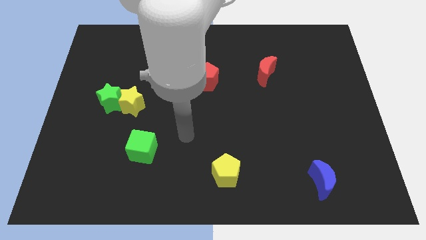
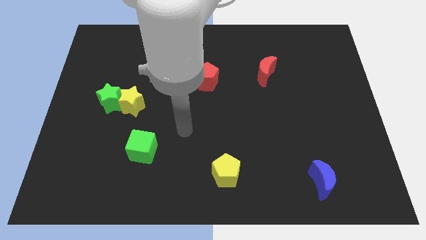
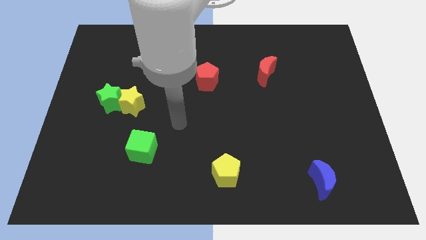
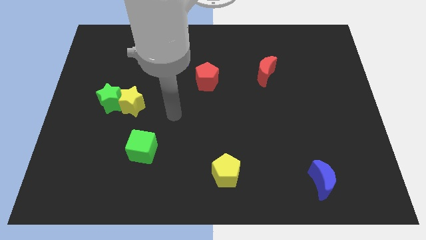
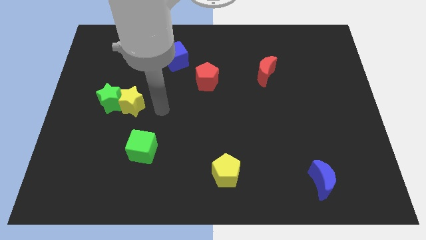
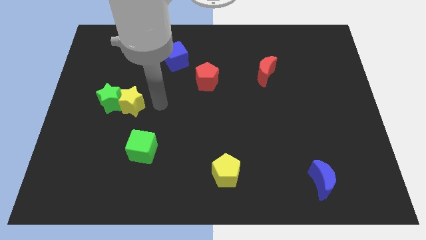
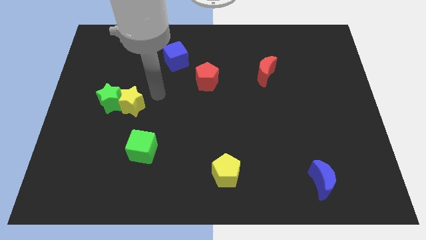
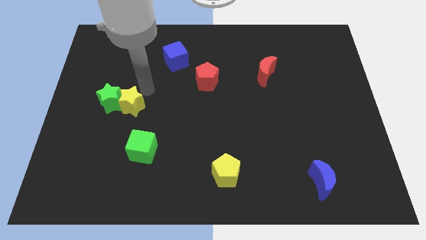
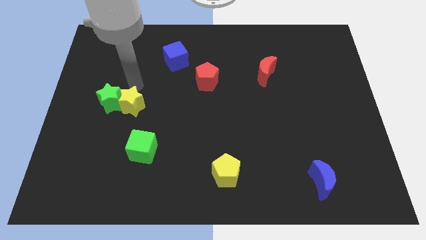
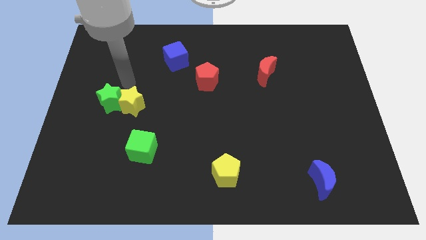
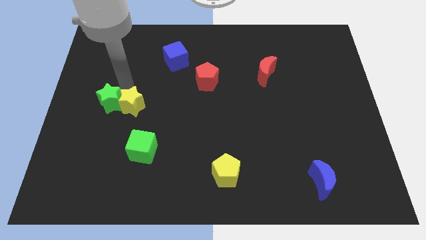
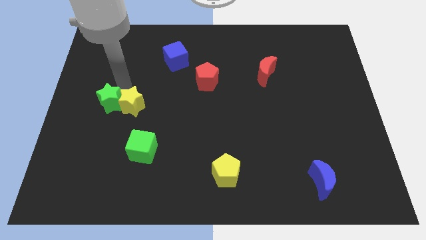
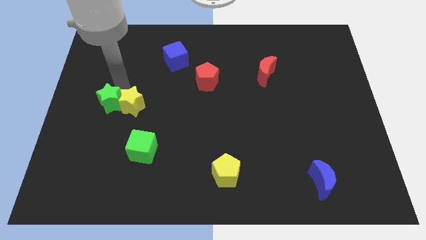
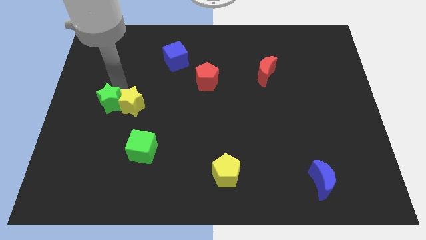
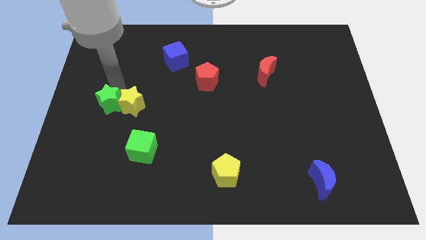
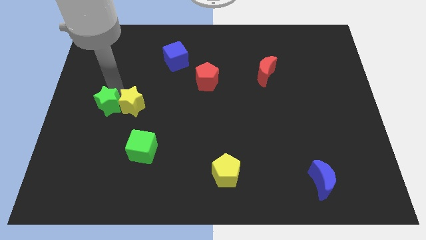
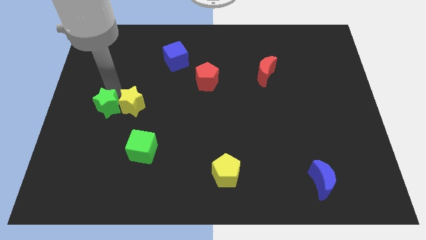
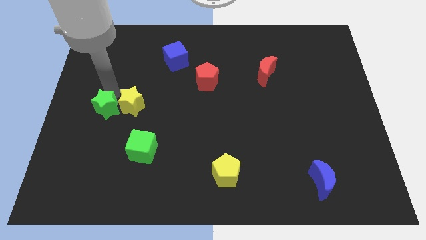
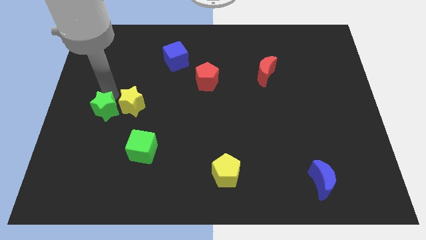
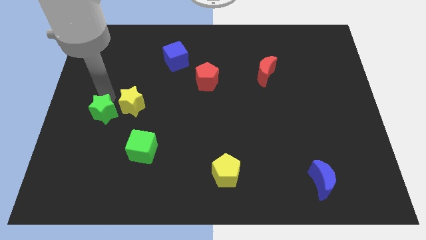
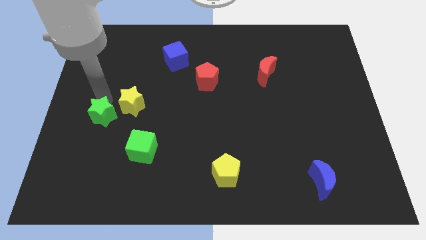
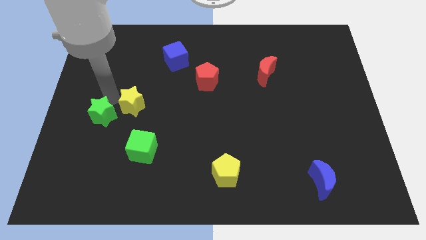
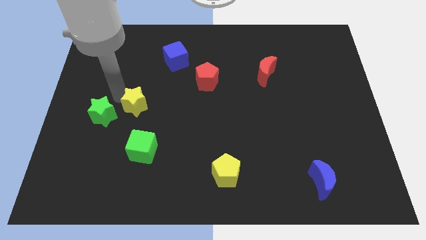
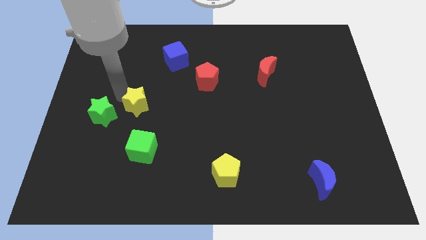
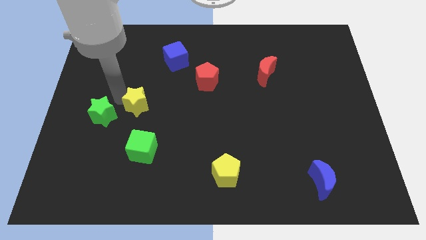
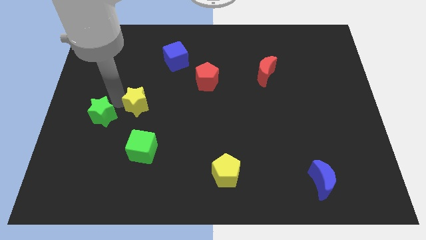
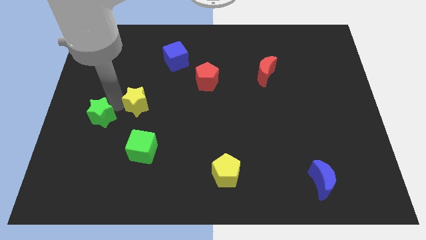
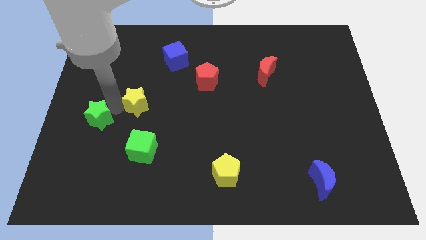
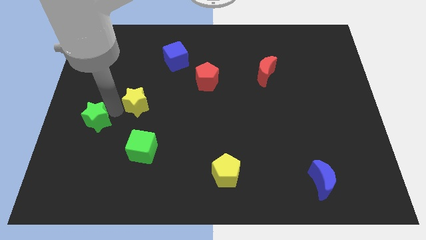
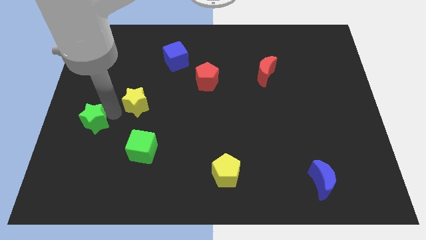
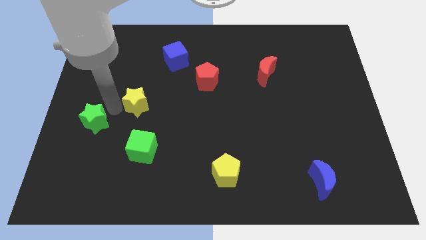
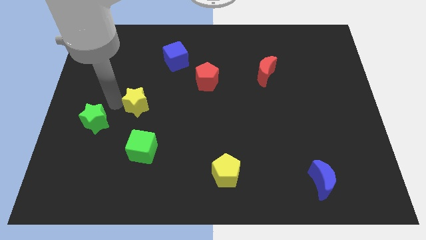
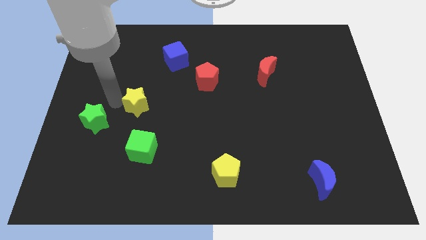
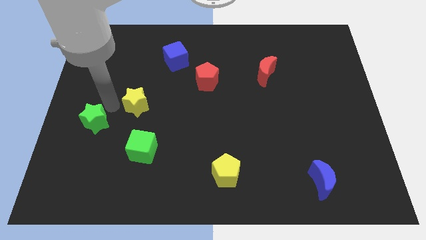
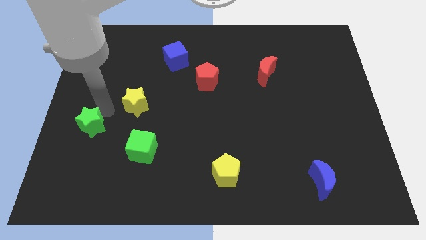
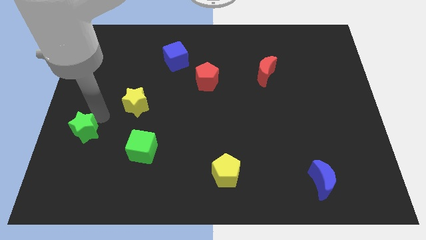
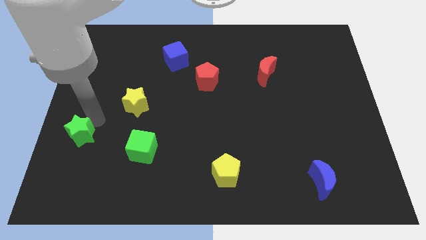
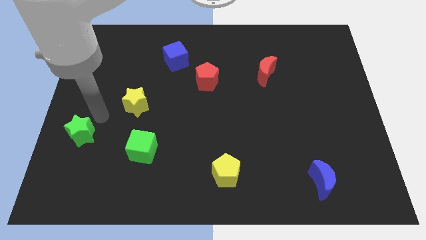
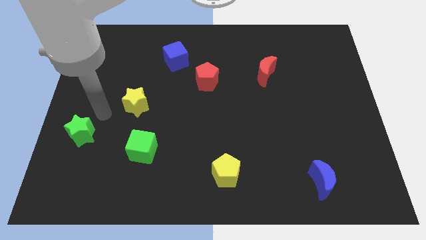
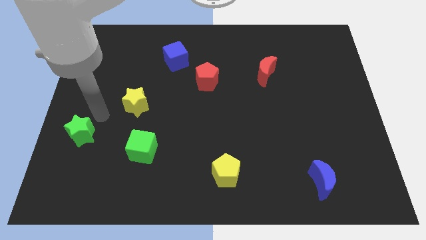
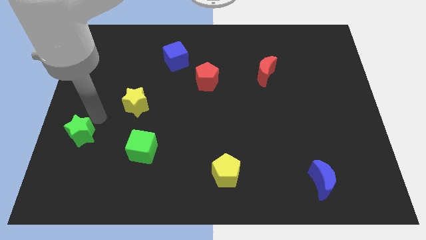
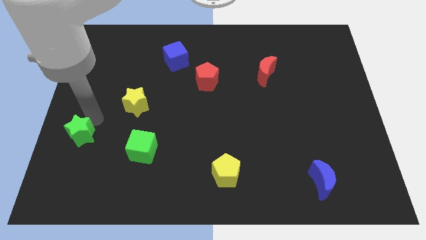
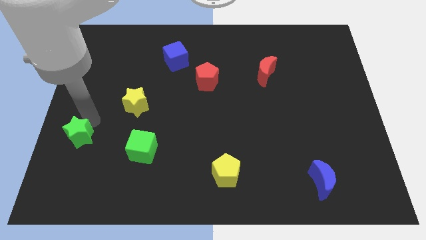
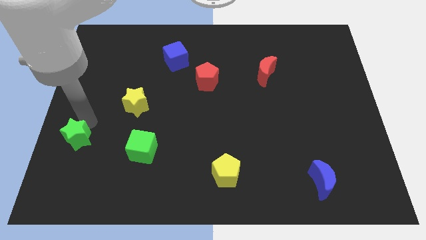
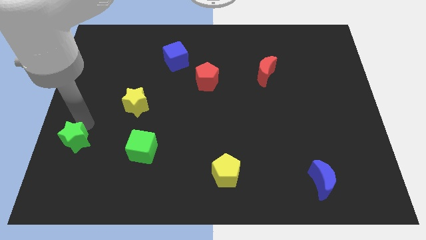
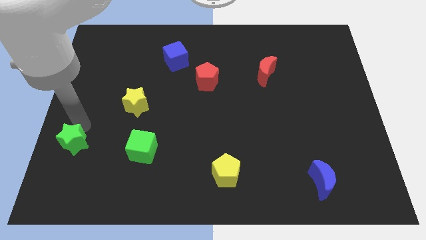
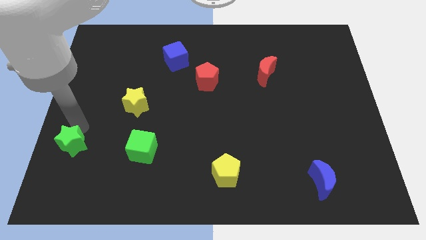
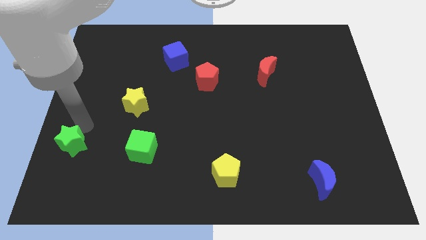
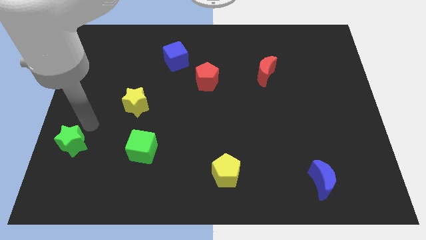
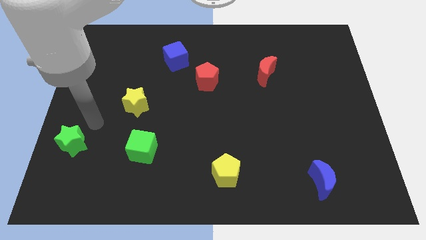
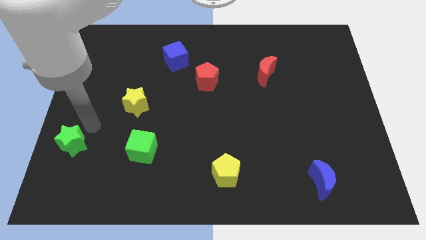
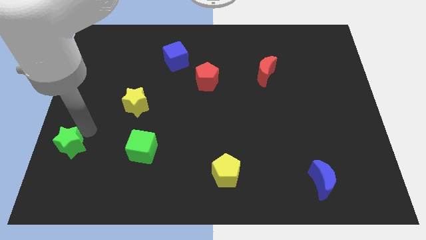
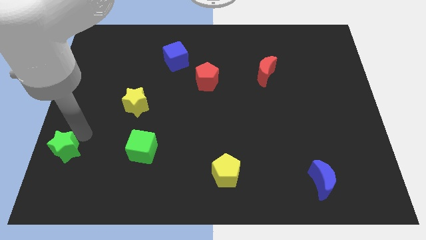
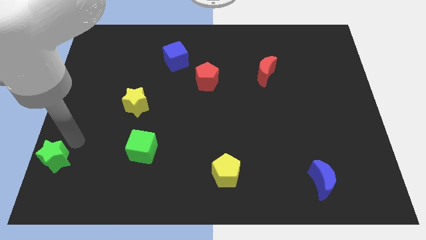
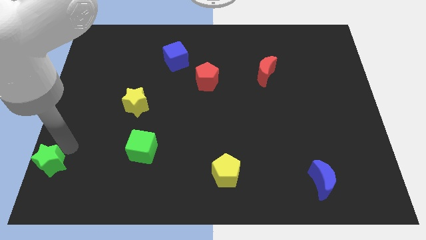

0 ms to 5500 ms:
slide the green star to the bottom left corner

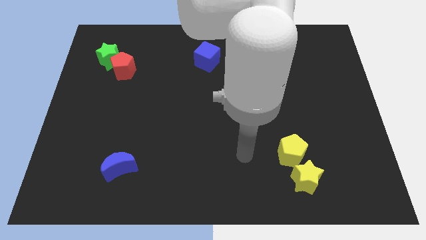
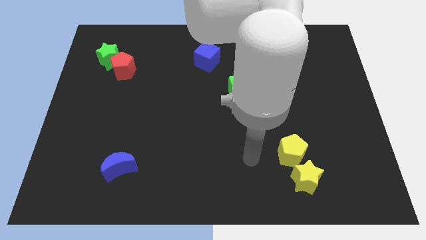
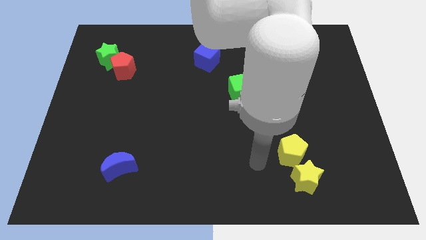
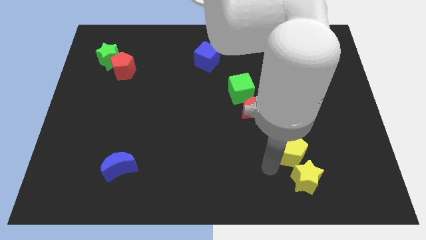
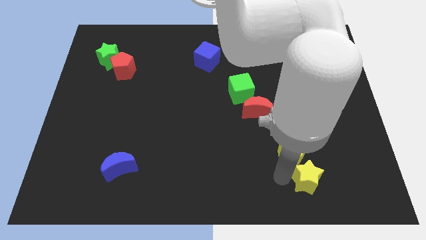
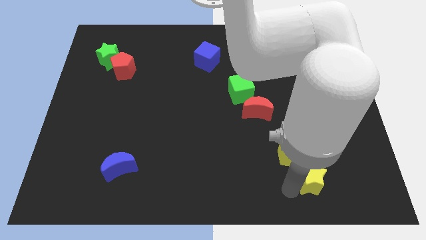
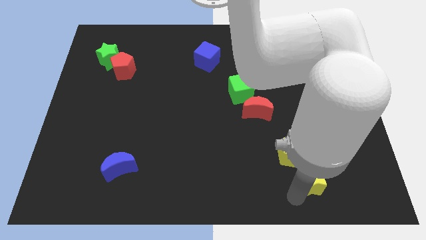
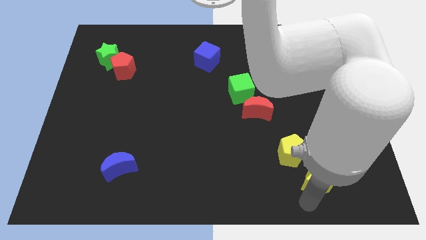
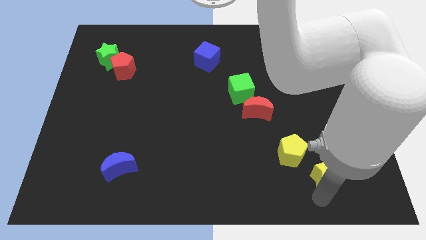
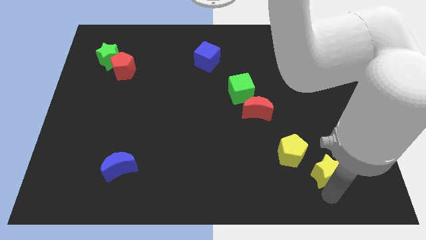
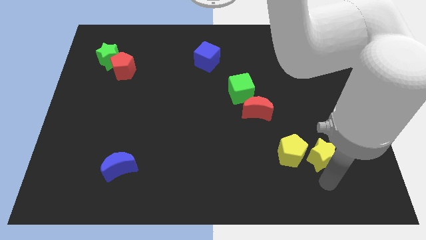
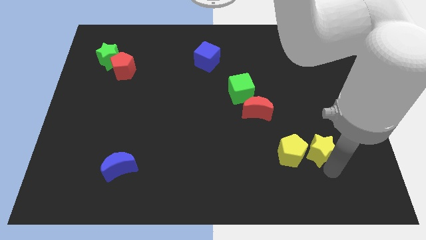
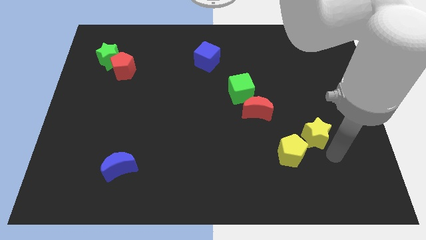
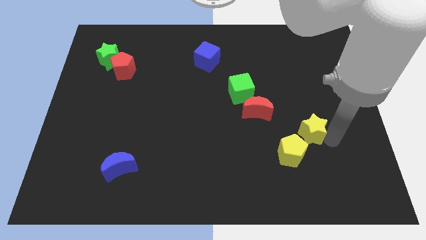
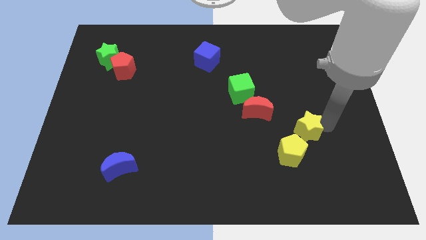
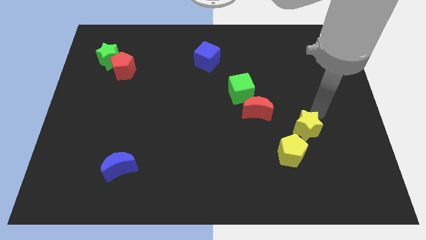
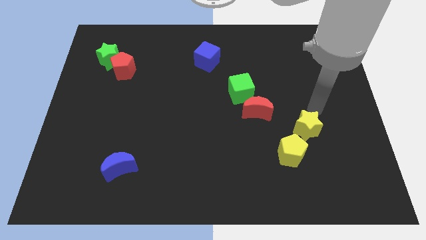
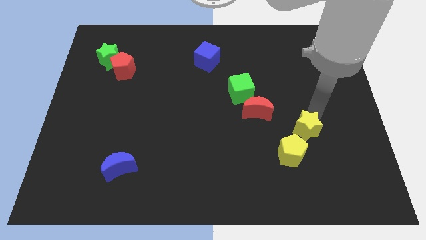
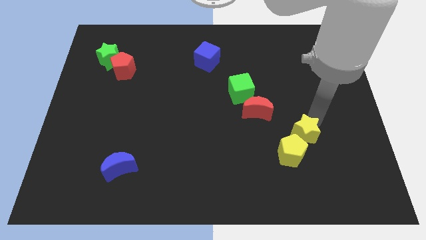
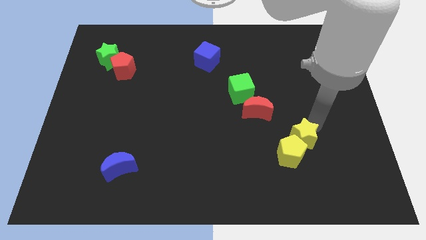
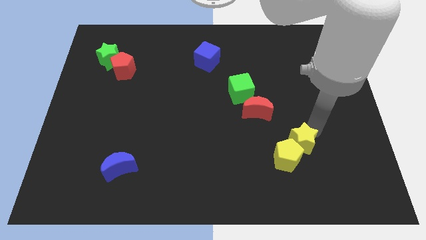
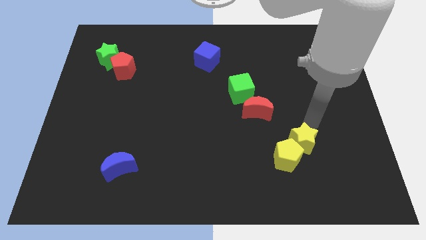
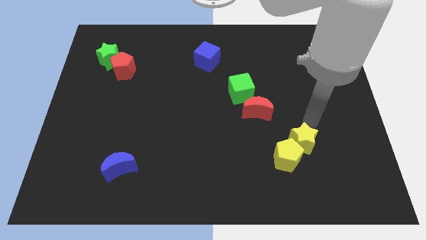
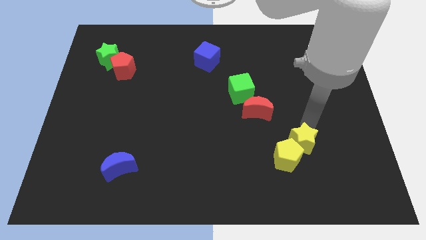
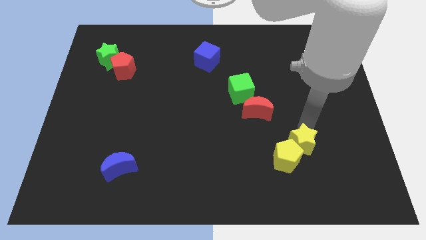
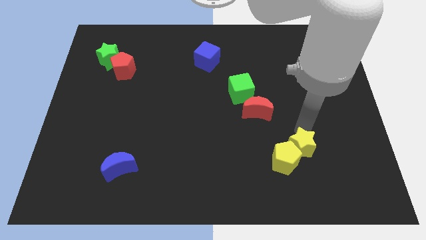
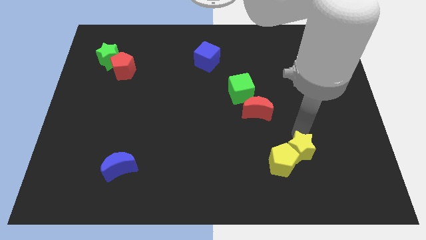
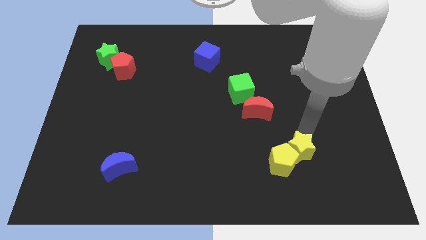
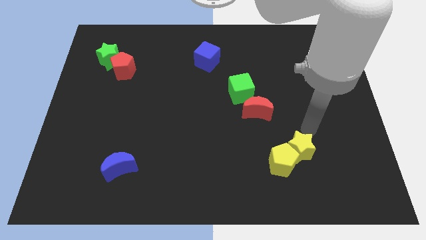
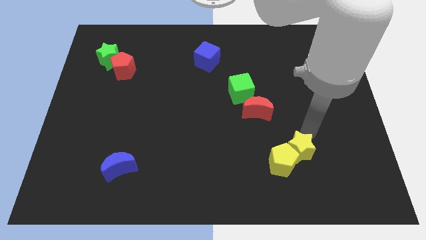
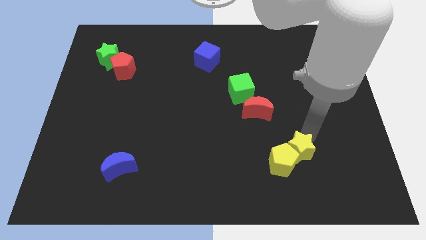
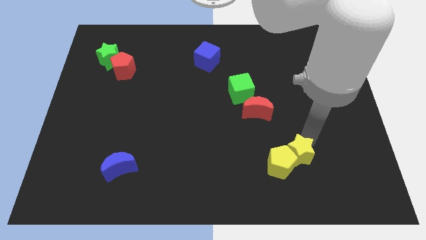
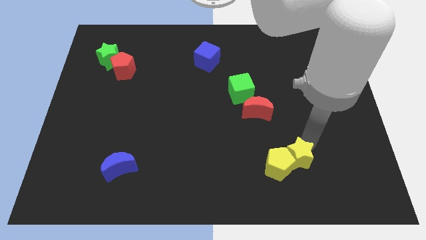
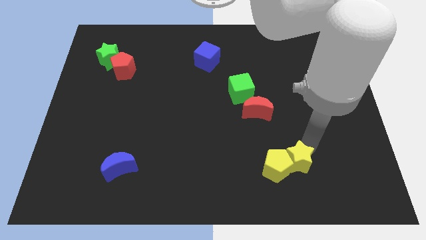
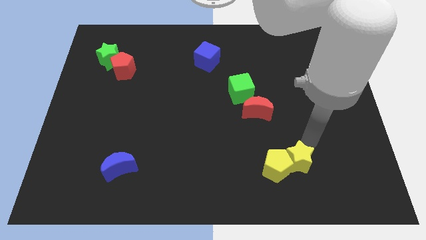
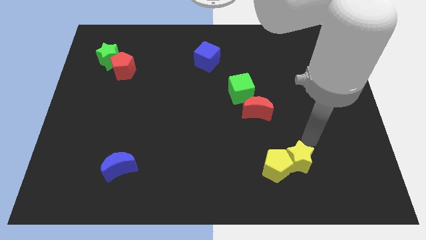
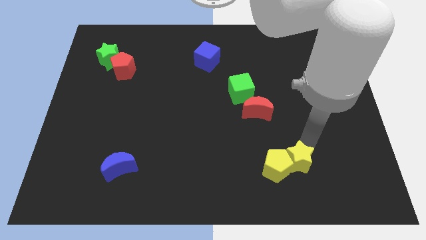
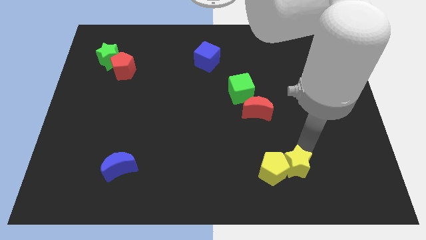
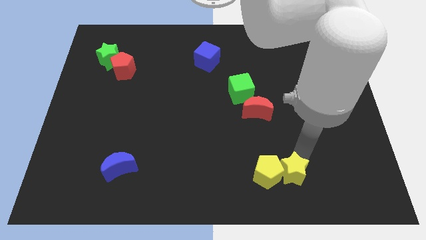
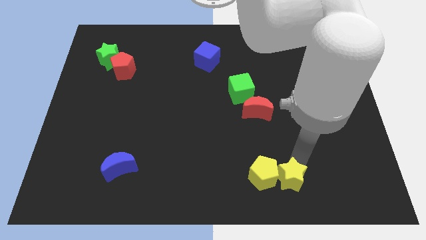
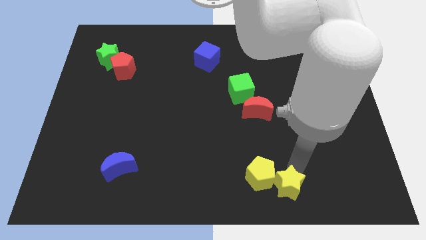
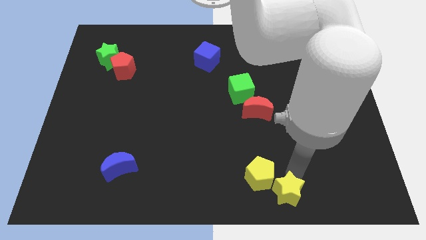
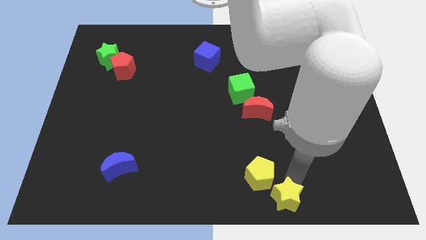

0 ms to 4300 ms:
put the yellow star to the bottom side
